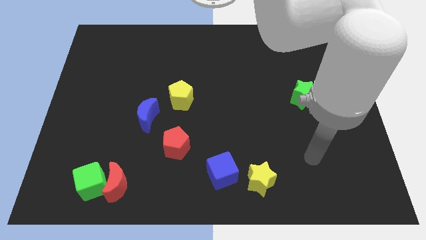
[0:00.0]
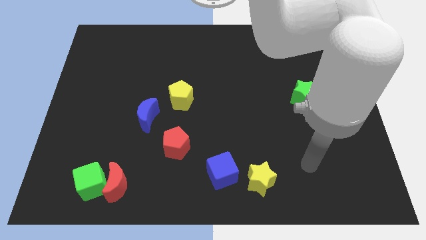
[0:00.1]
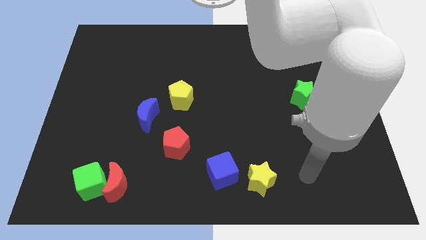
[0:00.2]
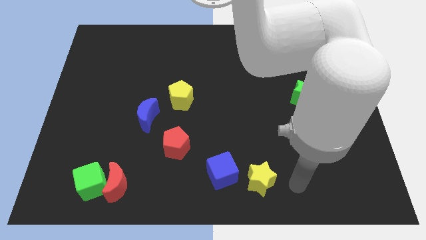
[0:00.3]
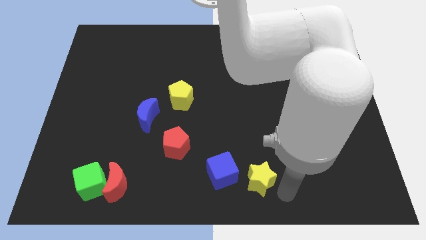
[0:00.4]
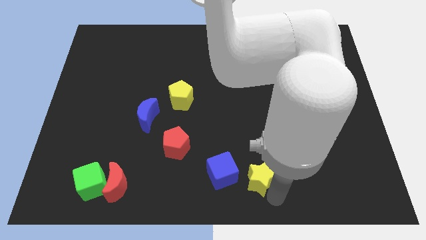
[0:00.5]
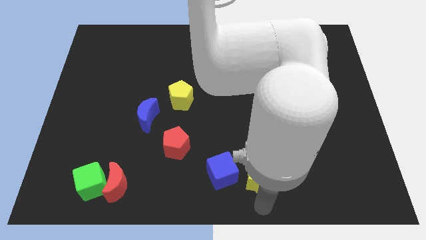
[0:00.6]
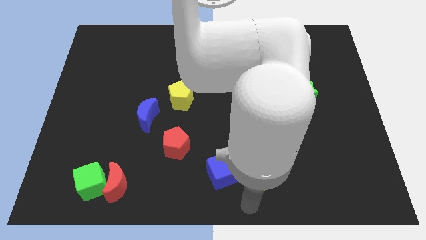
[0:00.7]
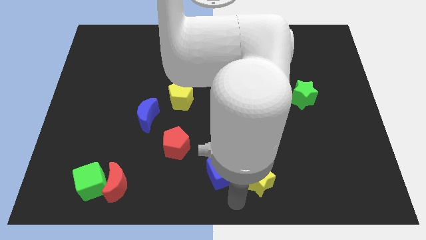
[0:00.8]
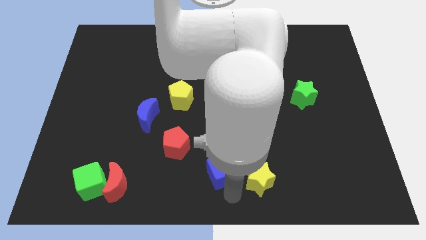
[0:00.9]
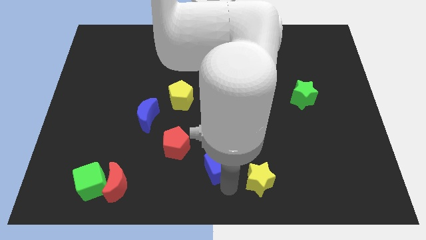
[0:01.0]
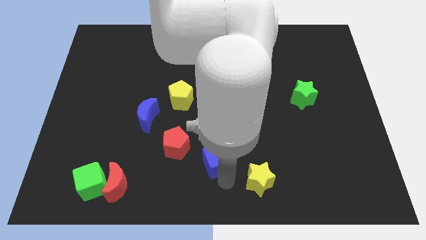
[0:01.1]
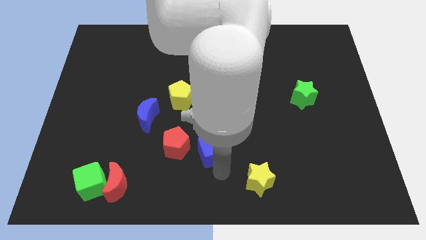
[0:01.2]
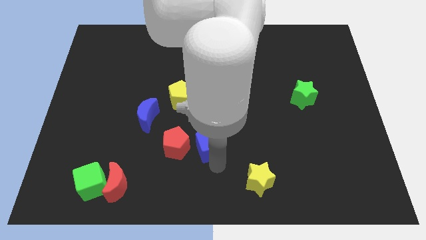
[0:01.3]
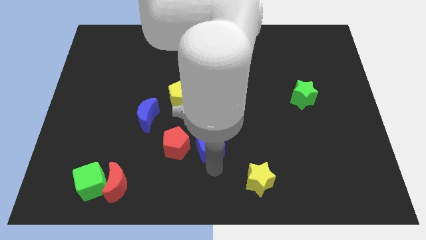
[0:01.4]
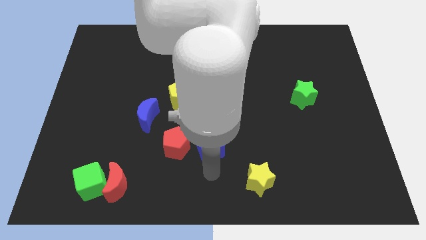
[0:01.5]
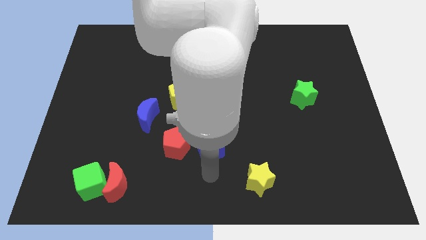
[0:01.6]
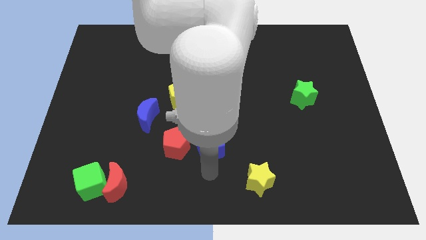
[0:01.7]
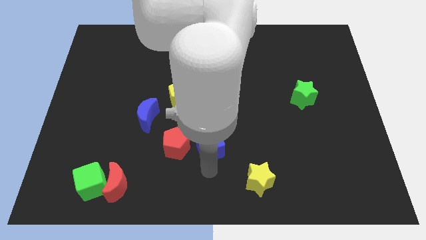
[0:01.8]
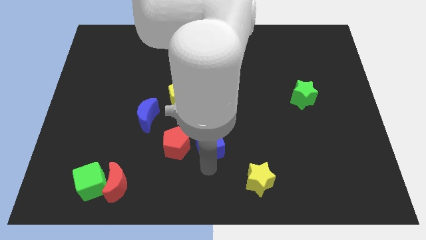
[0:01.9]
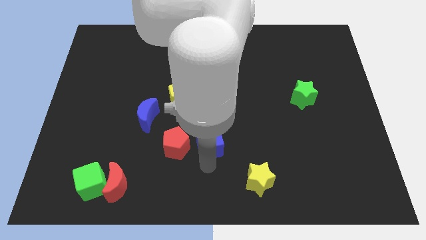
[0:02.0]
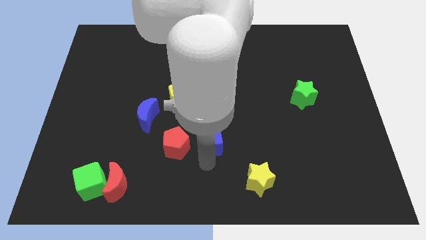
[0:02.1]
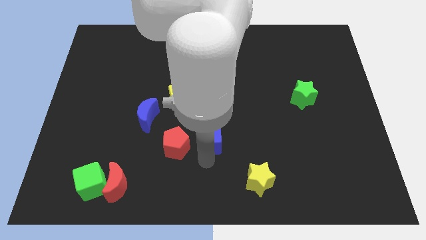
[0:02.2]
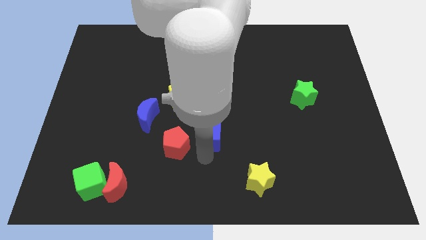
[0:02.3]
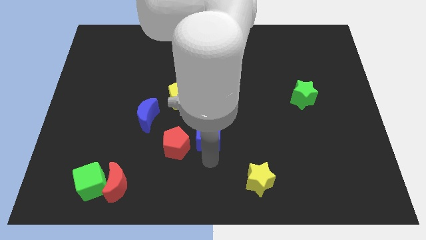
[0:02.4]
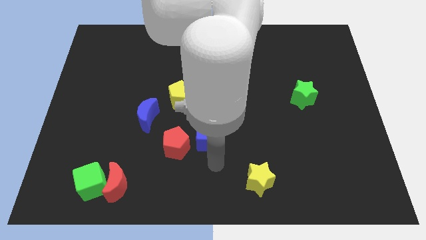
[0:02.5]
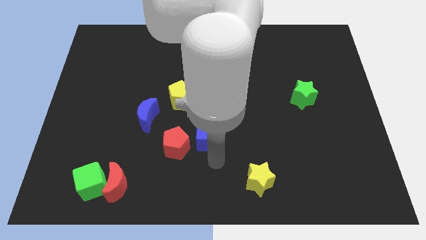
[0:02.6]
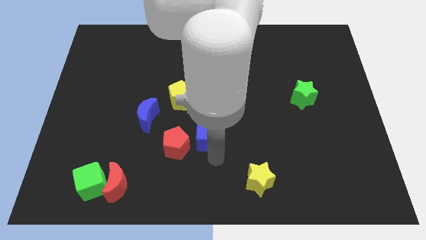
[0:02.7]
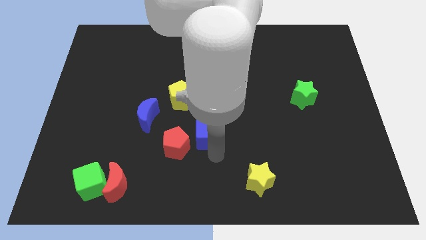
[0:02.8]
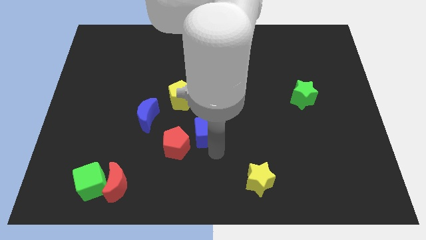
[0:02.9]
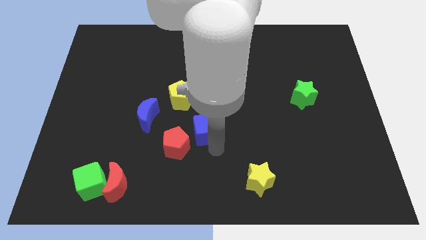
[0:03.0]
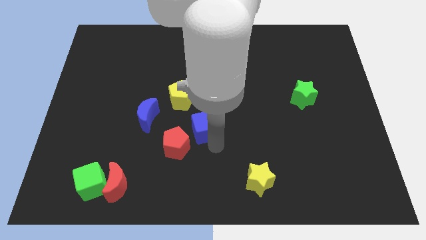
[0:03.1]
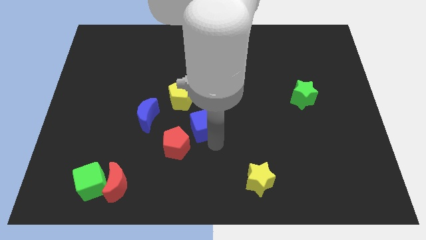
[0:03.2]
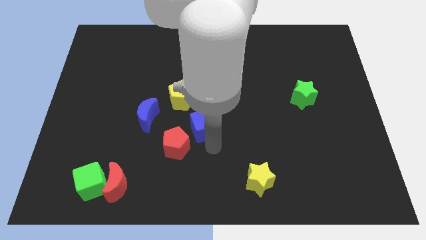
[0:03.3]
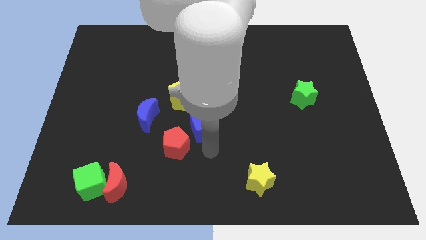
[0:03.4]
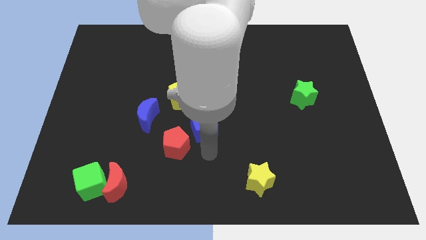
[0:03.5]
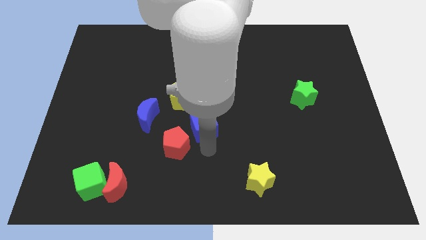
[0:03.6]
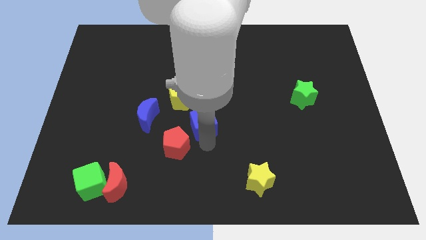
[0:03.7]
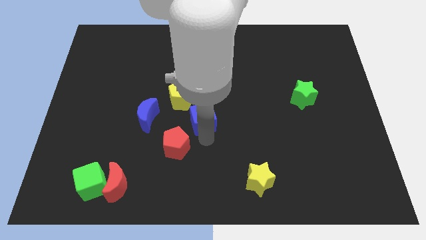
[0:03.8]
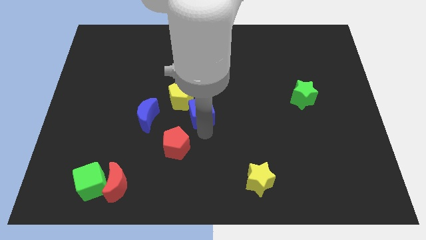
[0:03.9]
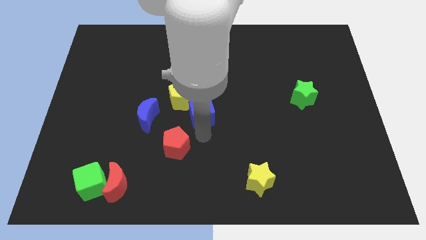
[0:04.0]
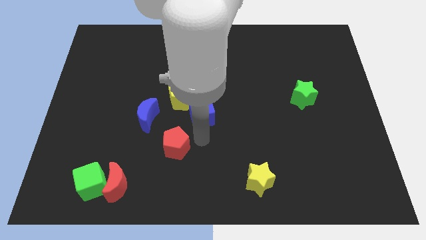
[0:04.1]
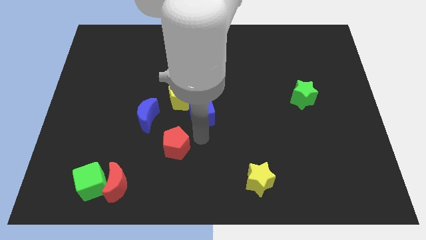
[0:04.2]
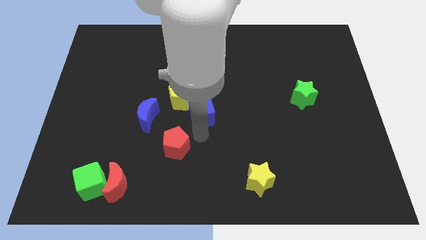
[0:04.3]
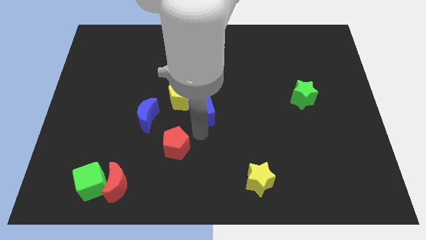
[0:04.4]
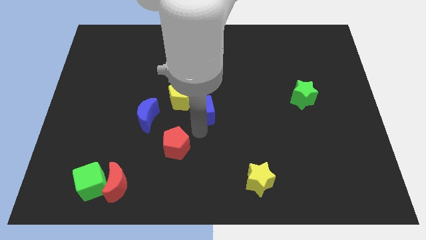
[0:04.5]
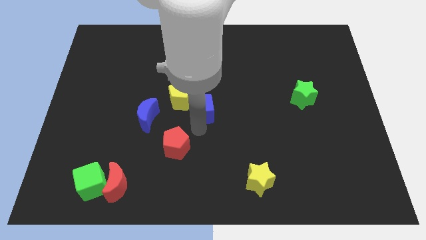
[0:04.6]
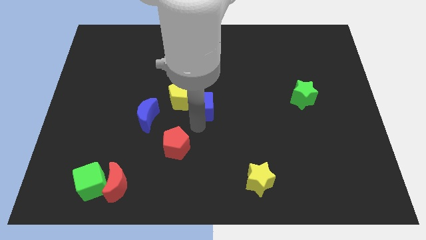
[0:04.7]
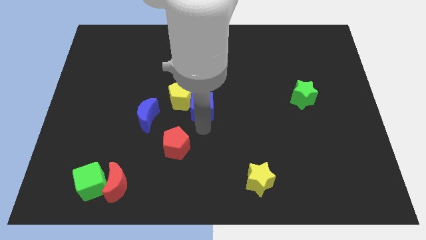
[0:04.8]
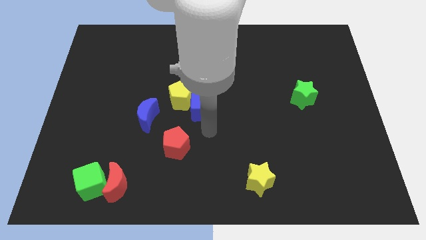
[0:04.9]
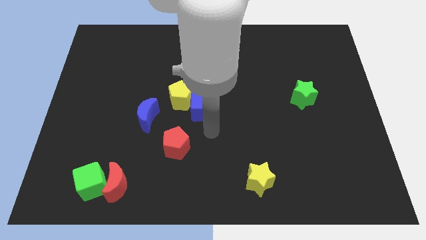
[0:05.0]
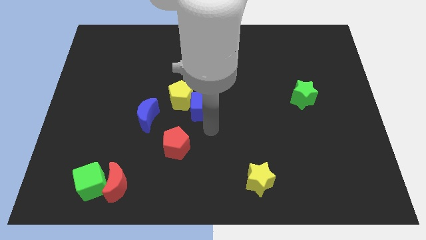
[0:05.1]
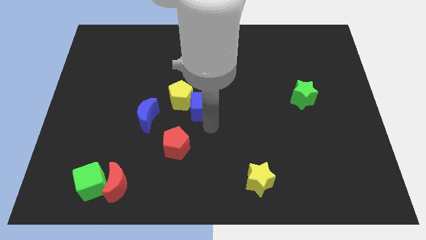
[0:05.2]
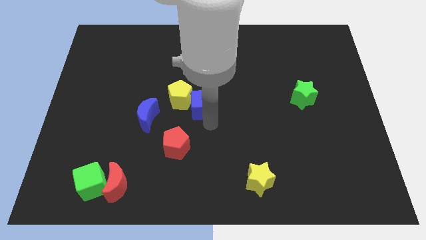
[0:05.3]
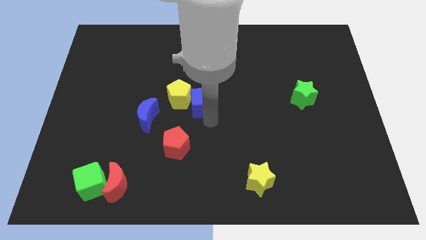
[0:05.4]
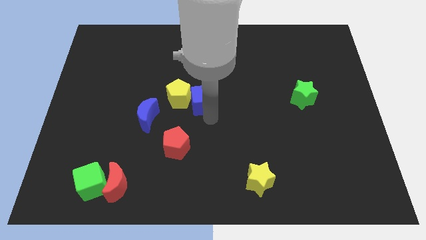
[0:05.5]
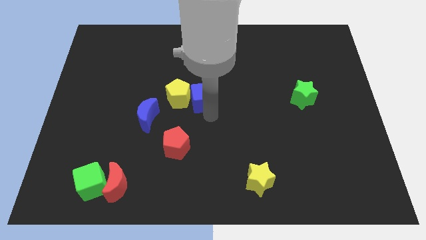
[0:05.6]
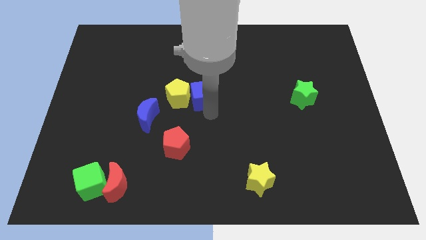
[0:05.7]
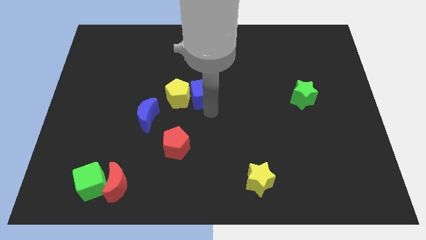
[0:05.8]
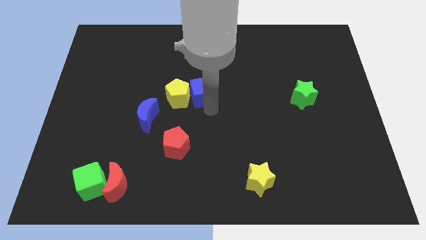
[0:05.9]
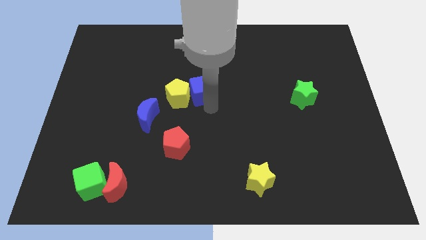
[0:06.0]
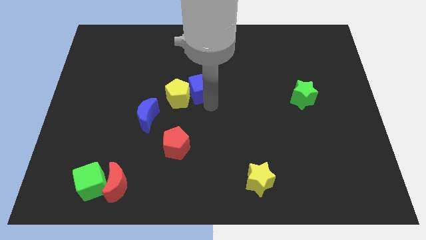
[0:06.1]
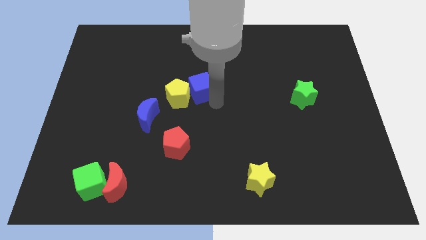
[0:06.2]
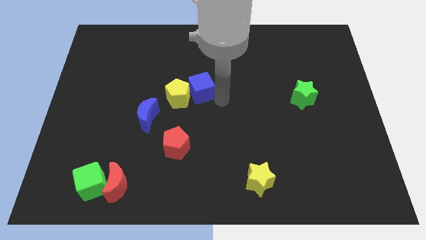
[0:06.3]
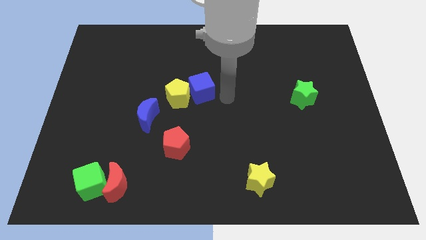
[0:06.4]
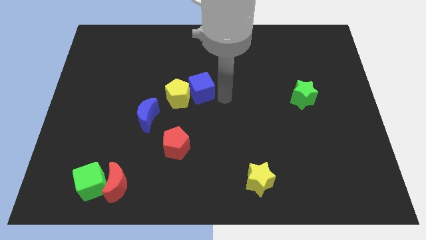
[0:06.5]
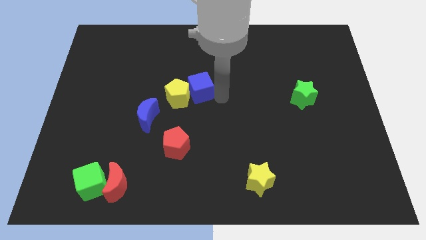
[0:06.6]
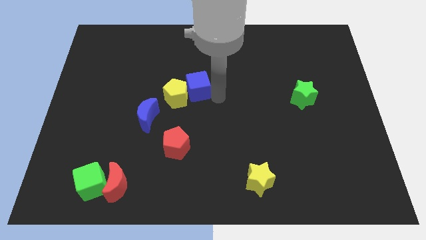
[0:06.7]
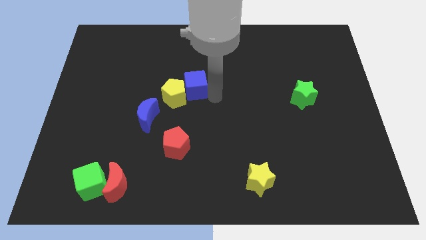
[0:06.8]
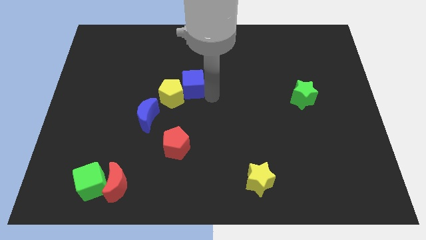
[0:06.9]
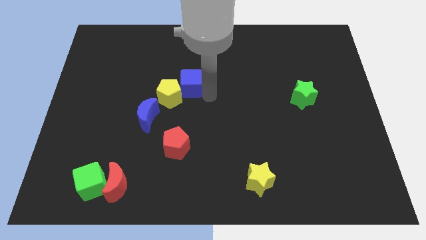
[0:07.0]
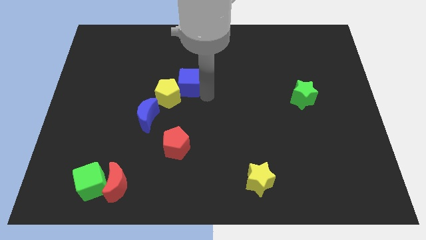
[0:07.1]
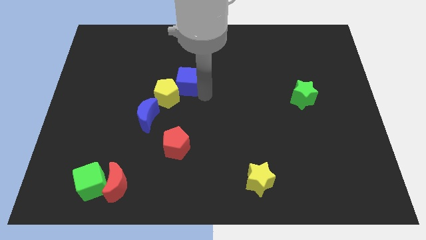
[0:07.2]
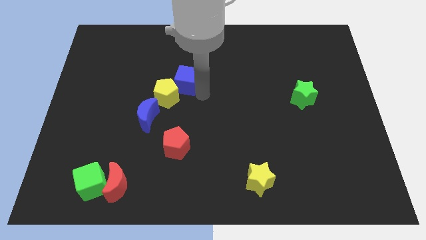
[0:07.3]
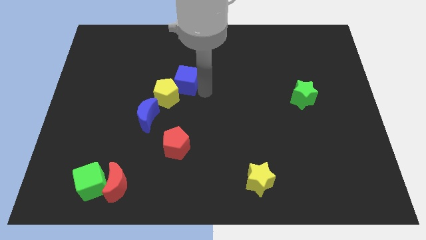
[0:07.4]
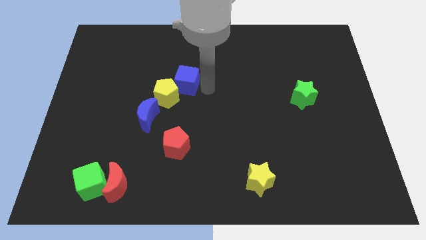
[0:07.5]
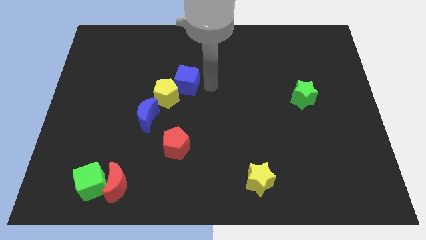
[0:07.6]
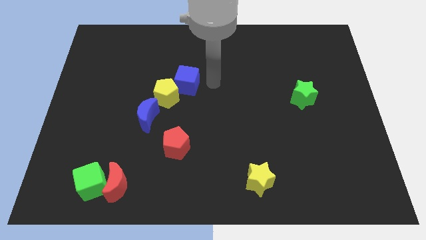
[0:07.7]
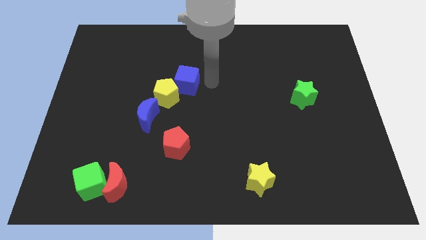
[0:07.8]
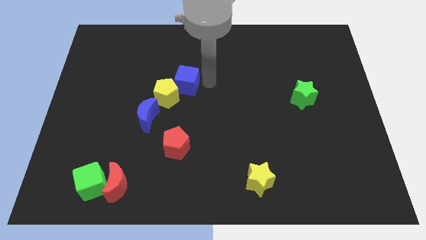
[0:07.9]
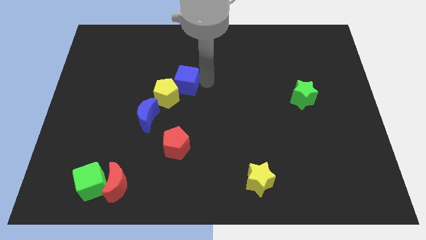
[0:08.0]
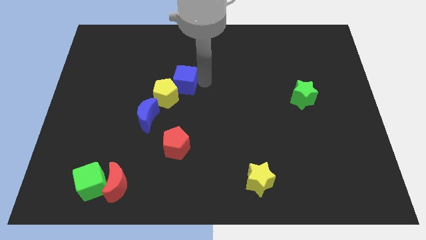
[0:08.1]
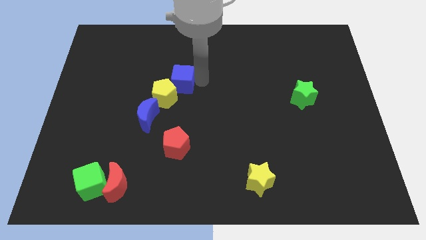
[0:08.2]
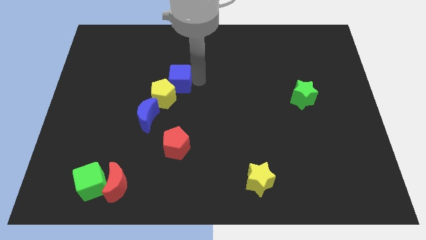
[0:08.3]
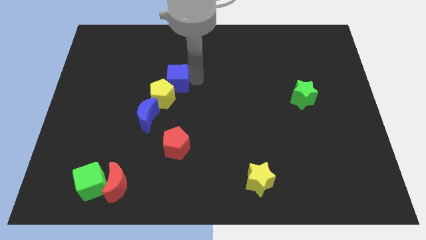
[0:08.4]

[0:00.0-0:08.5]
move the blue cube diagonally upwards and left
